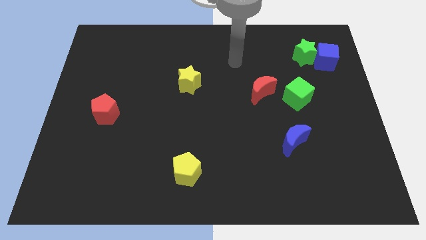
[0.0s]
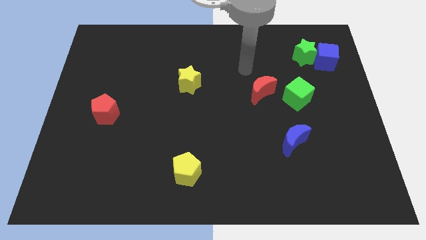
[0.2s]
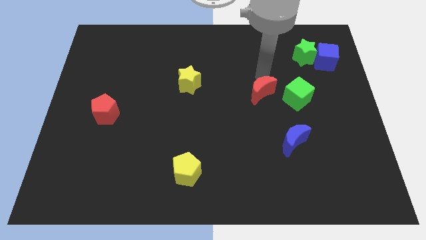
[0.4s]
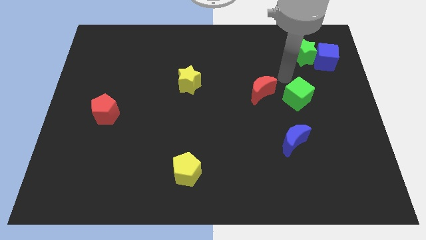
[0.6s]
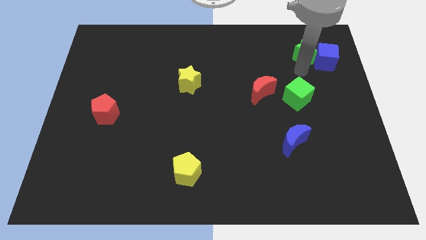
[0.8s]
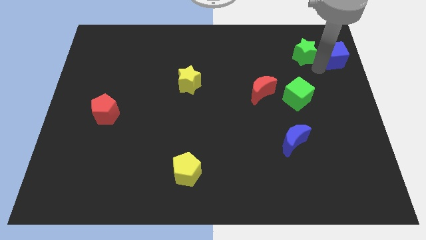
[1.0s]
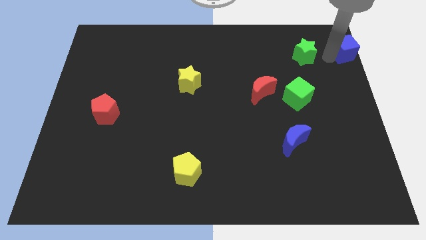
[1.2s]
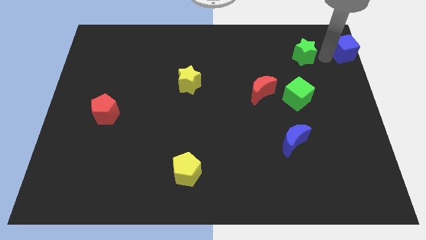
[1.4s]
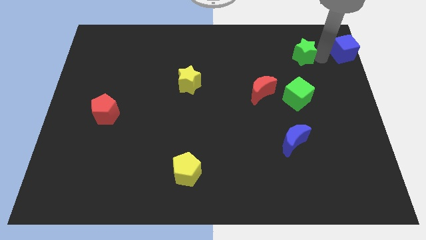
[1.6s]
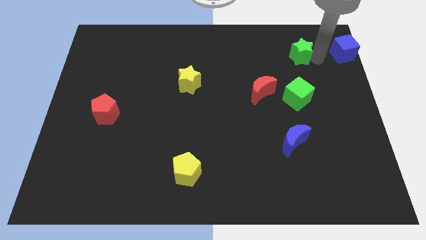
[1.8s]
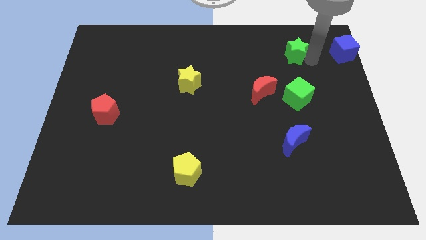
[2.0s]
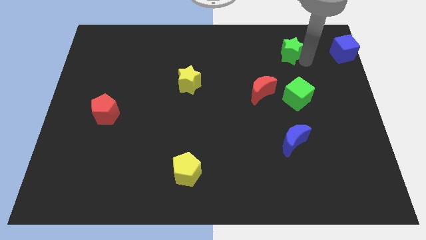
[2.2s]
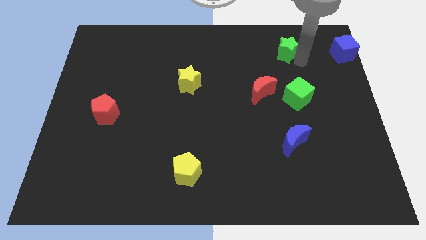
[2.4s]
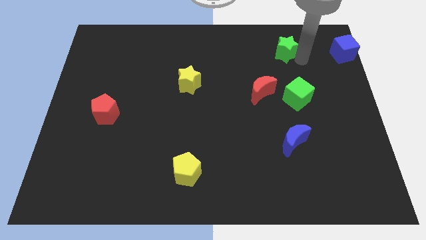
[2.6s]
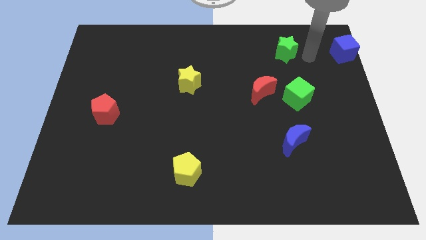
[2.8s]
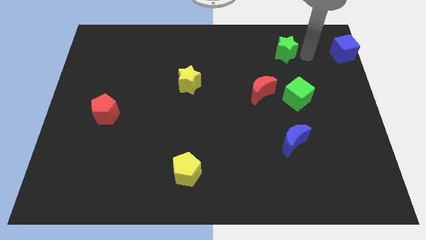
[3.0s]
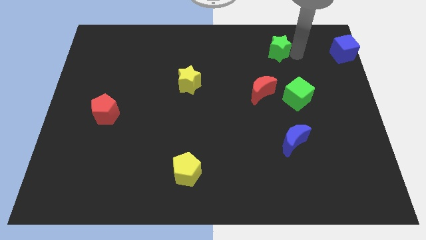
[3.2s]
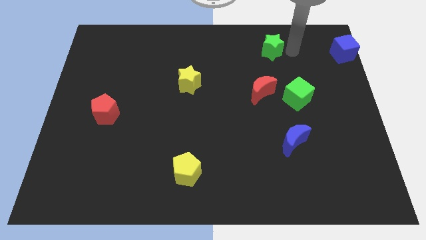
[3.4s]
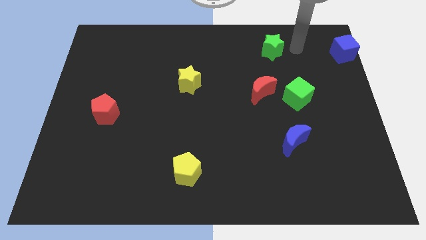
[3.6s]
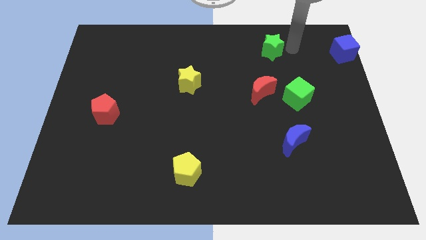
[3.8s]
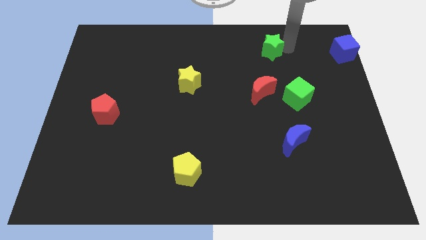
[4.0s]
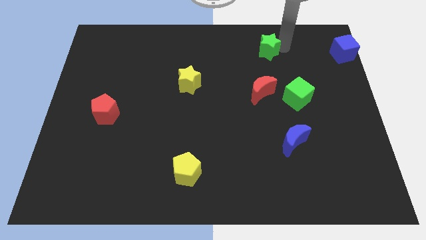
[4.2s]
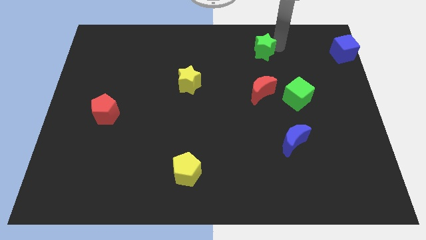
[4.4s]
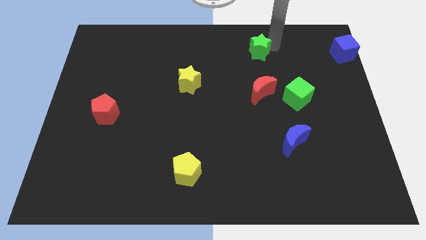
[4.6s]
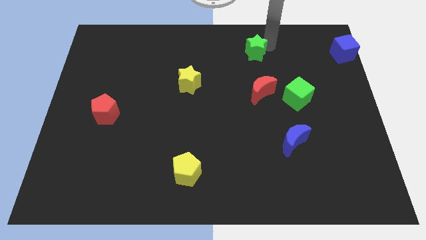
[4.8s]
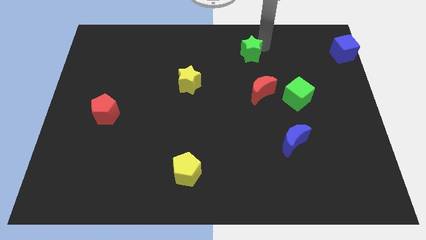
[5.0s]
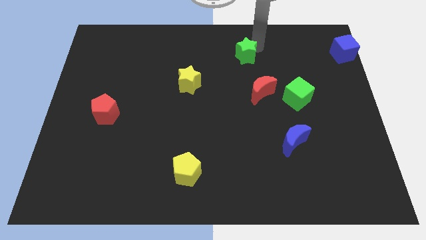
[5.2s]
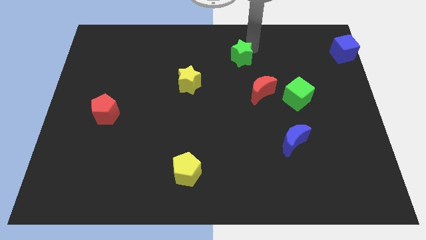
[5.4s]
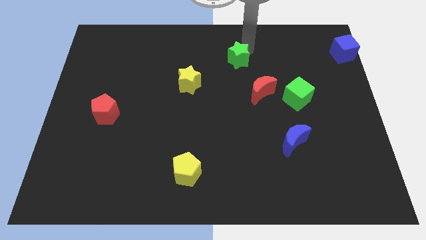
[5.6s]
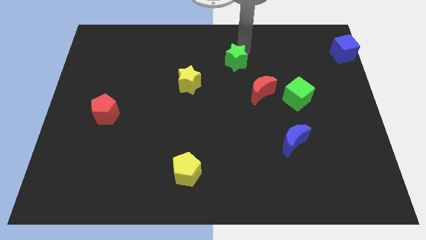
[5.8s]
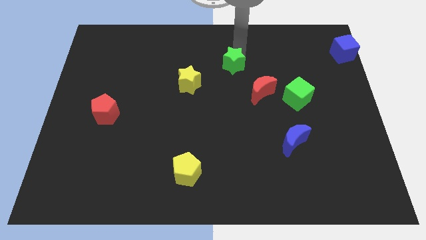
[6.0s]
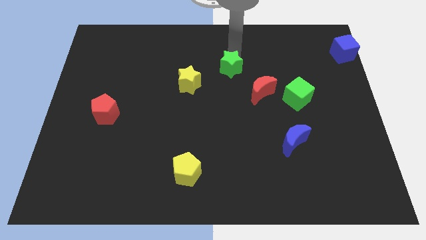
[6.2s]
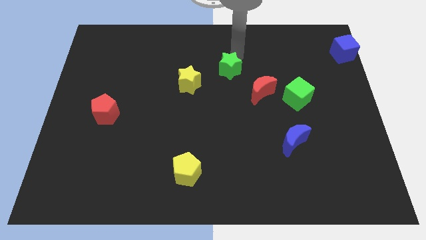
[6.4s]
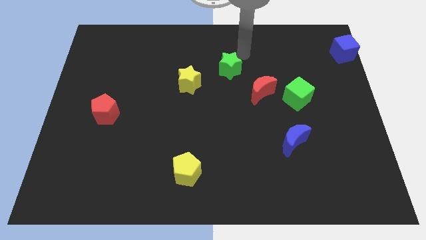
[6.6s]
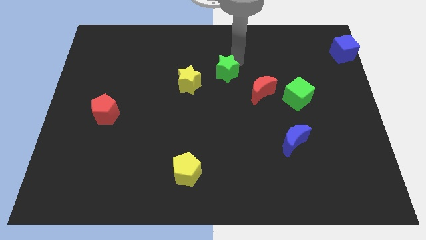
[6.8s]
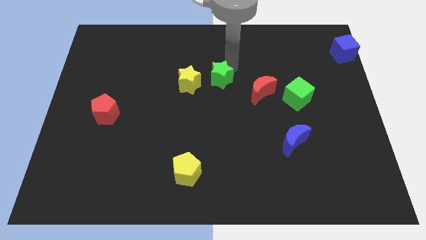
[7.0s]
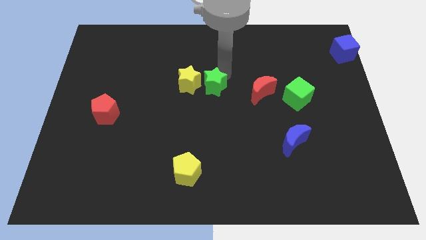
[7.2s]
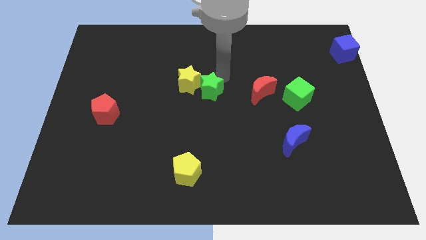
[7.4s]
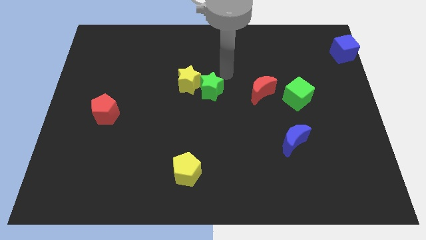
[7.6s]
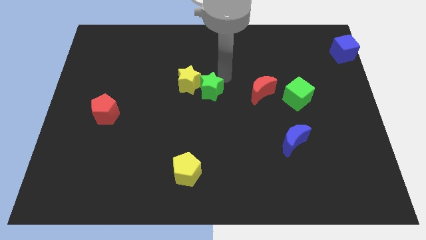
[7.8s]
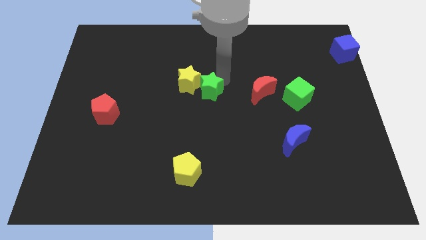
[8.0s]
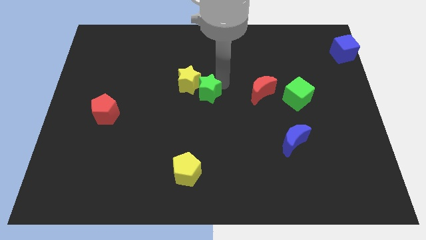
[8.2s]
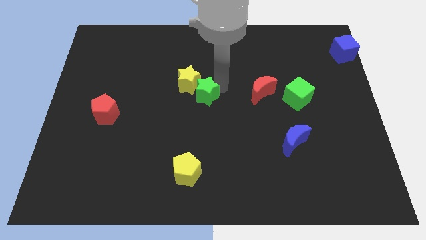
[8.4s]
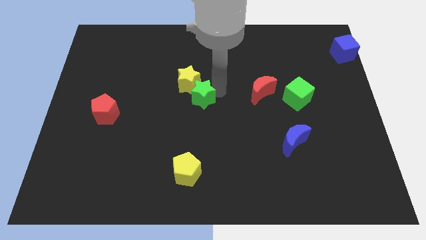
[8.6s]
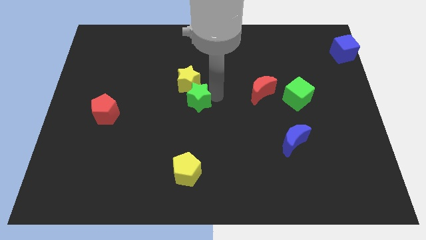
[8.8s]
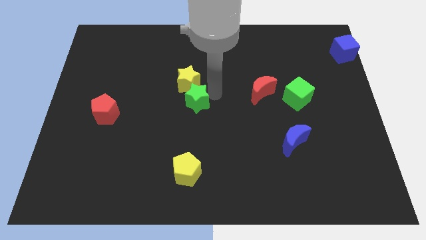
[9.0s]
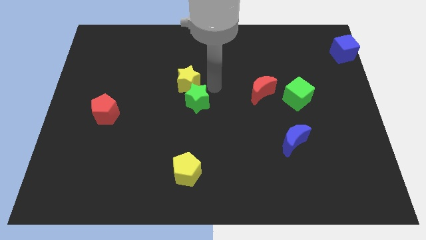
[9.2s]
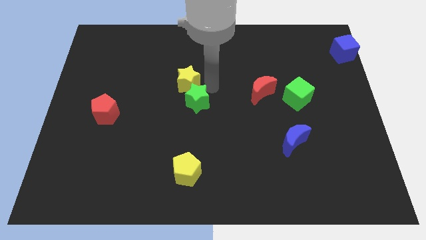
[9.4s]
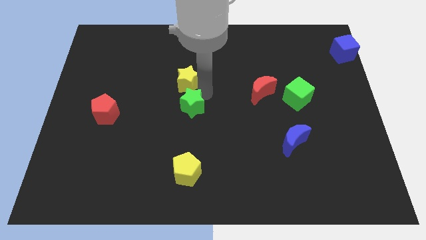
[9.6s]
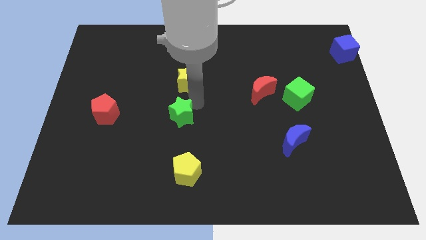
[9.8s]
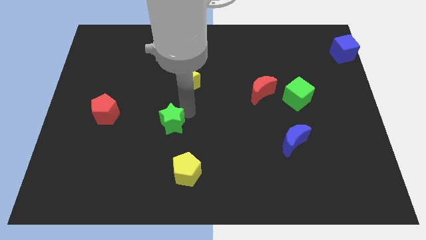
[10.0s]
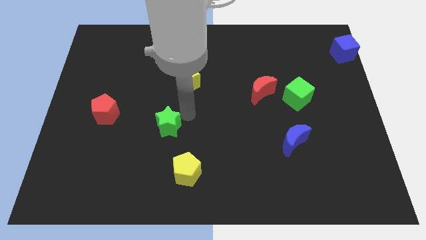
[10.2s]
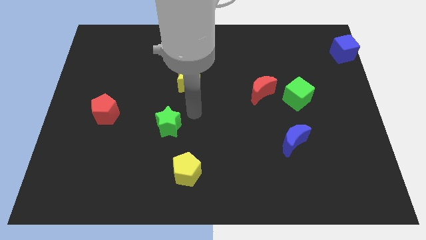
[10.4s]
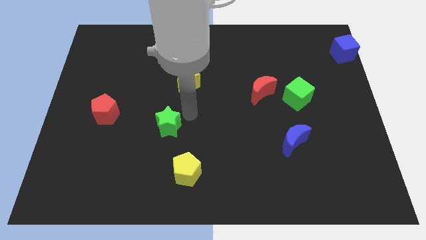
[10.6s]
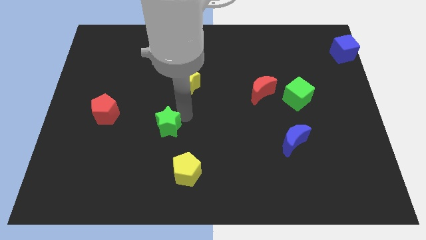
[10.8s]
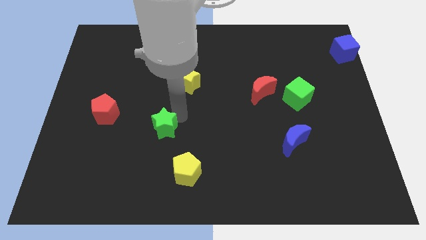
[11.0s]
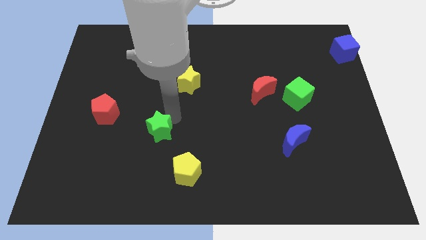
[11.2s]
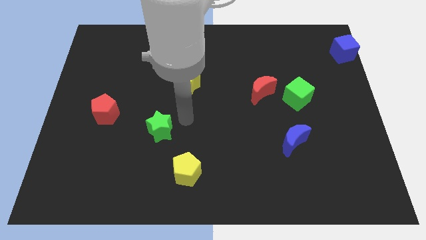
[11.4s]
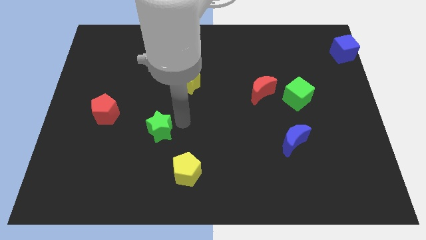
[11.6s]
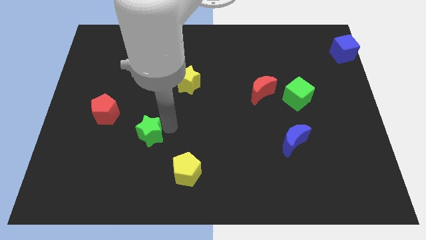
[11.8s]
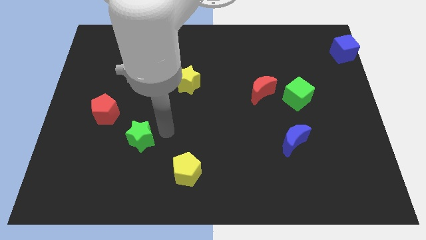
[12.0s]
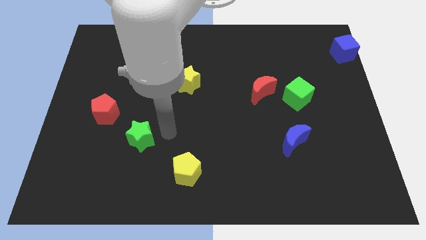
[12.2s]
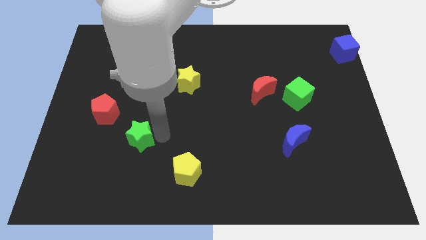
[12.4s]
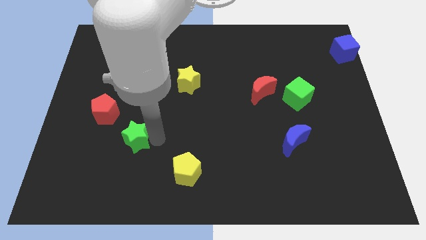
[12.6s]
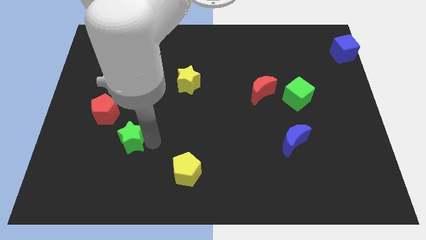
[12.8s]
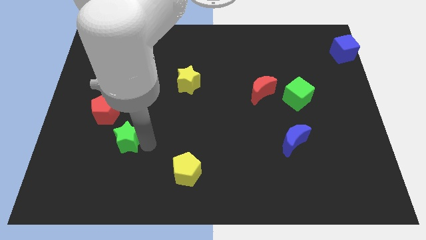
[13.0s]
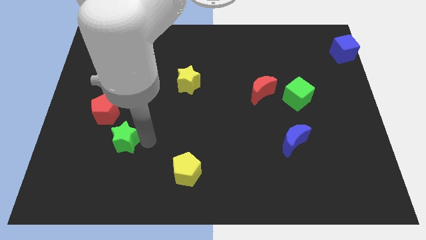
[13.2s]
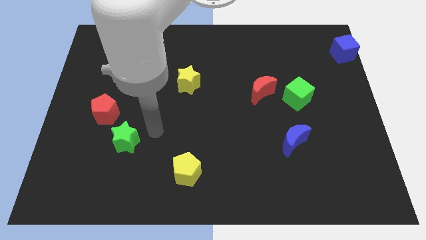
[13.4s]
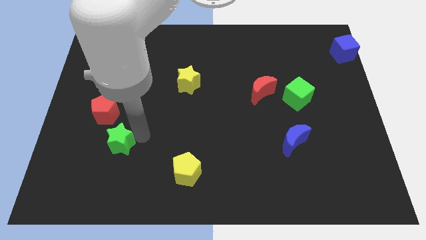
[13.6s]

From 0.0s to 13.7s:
put the green star below the red pentagon
